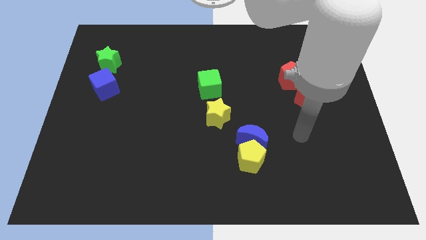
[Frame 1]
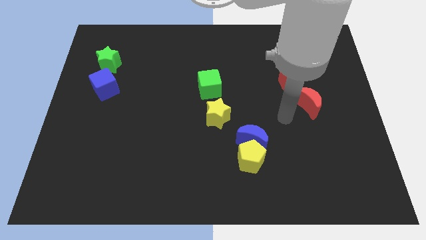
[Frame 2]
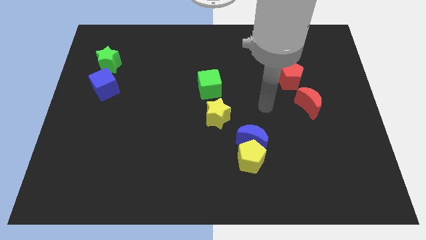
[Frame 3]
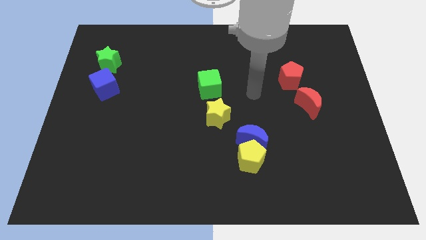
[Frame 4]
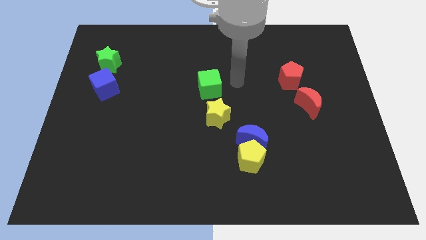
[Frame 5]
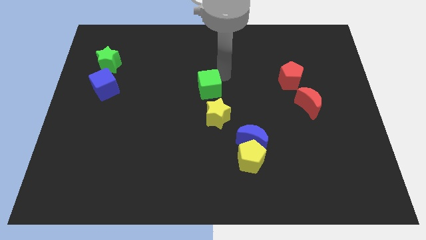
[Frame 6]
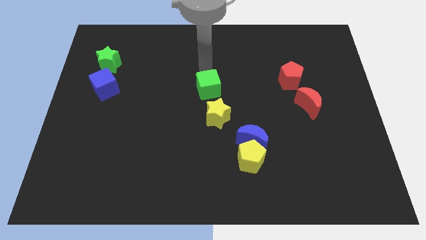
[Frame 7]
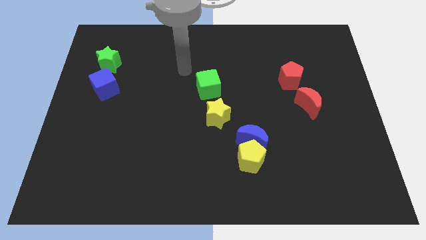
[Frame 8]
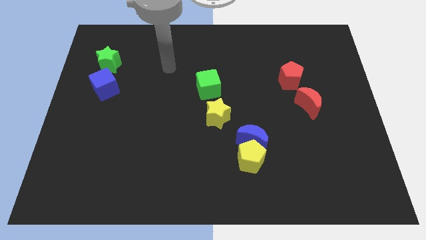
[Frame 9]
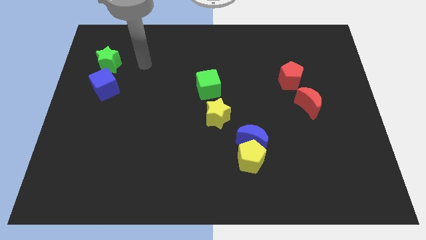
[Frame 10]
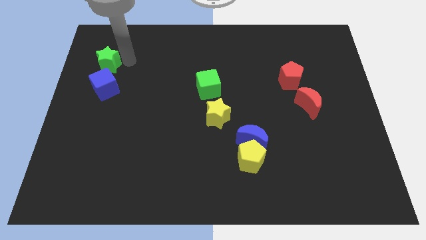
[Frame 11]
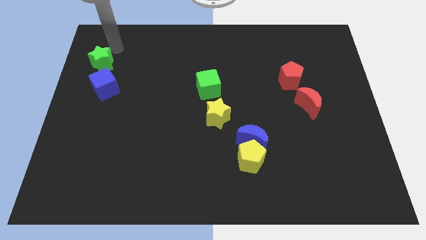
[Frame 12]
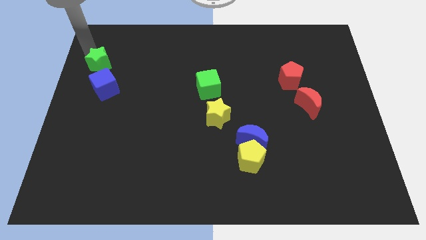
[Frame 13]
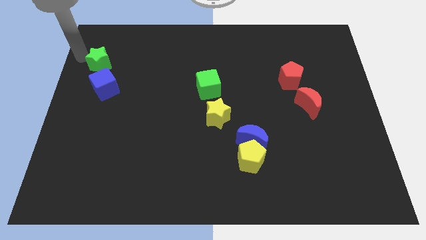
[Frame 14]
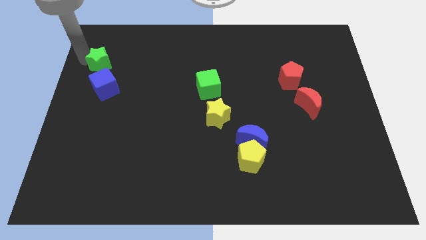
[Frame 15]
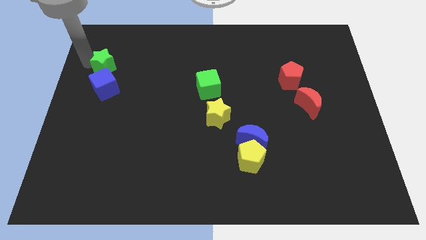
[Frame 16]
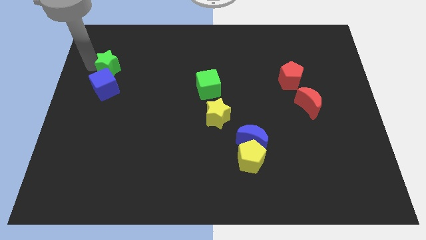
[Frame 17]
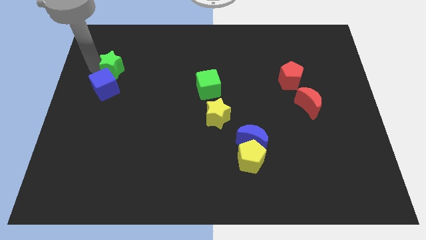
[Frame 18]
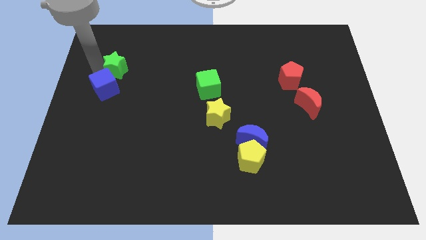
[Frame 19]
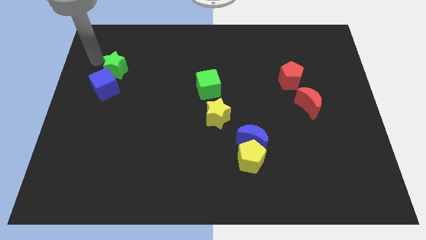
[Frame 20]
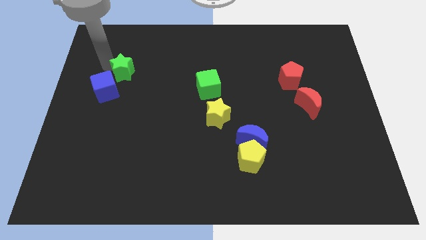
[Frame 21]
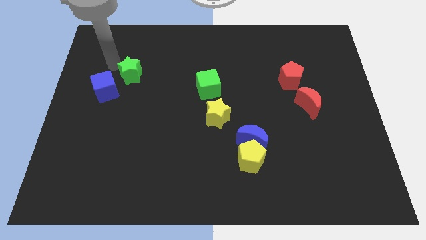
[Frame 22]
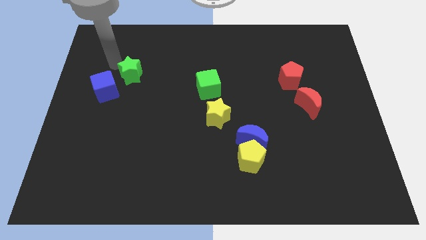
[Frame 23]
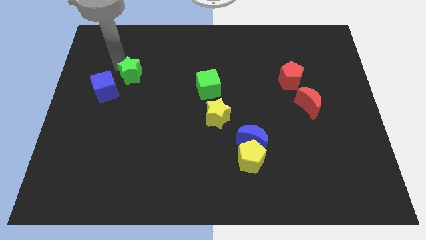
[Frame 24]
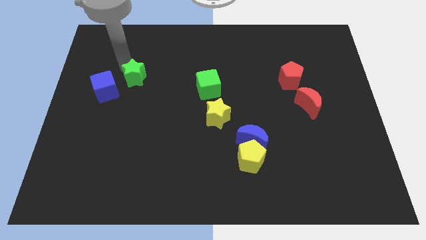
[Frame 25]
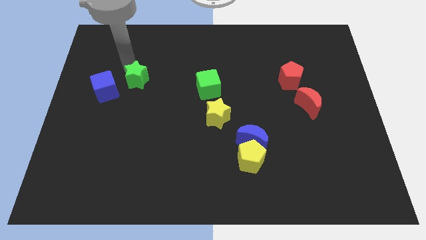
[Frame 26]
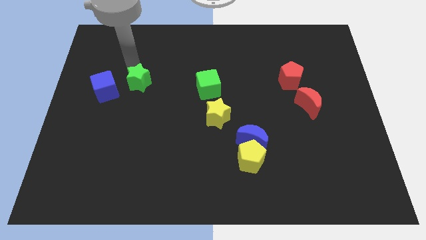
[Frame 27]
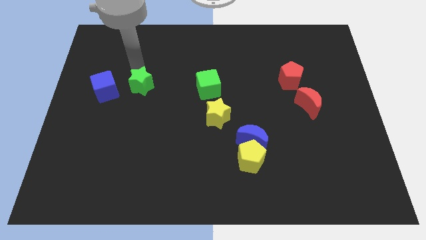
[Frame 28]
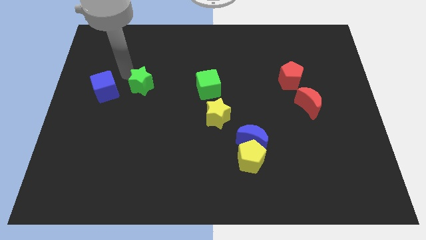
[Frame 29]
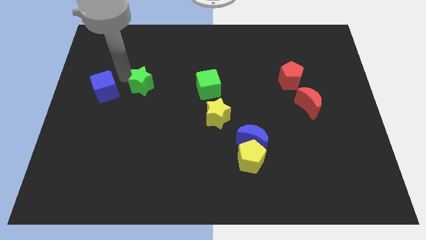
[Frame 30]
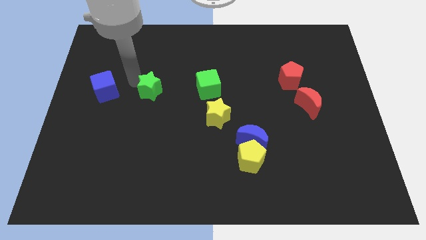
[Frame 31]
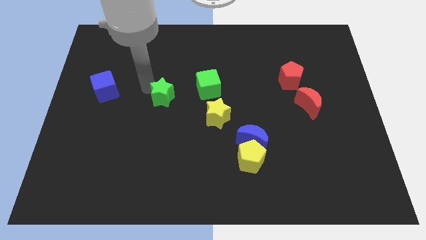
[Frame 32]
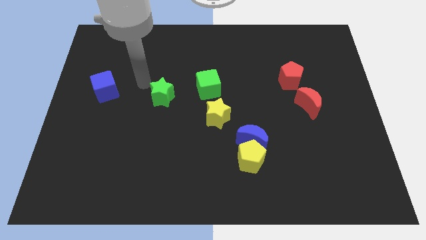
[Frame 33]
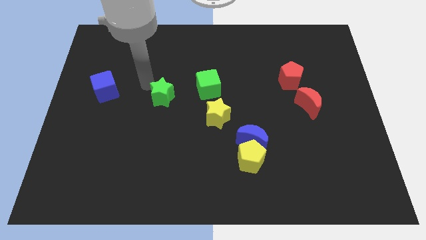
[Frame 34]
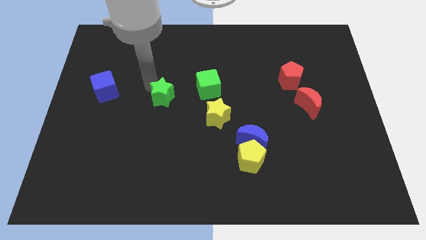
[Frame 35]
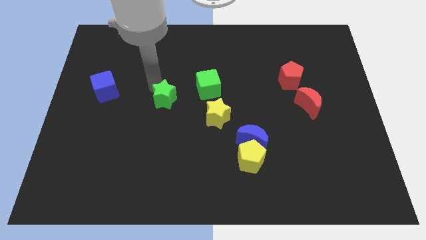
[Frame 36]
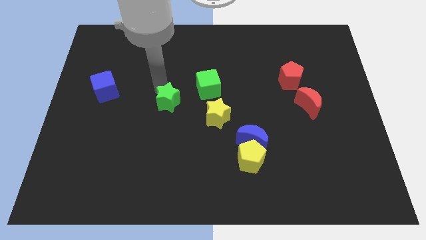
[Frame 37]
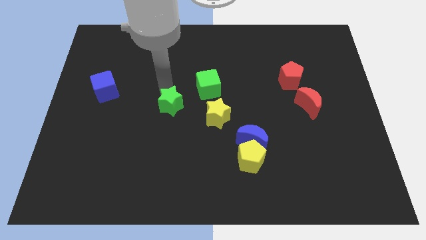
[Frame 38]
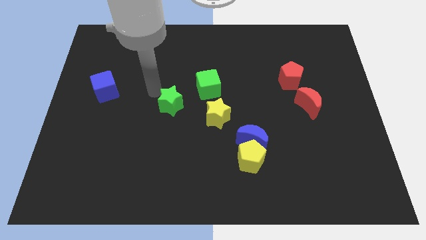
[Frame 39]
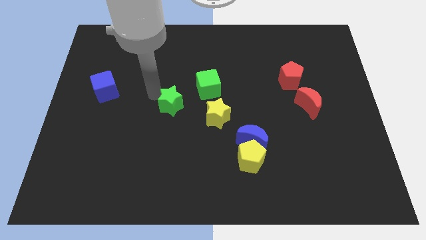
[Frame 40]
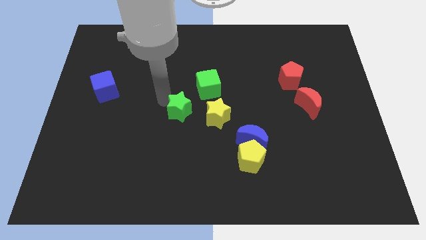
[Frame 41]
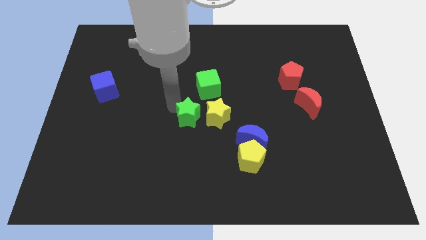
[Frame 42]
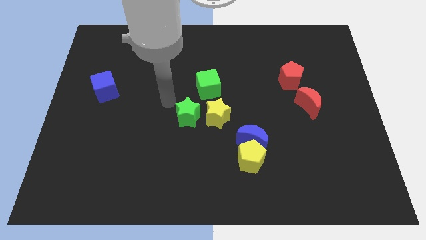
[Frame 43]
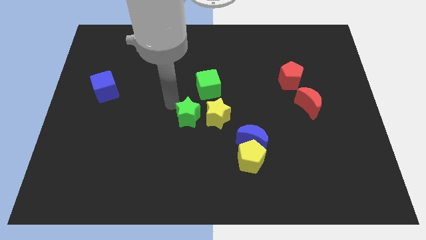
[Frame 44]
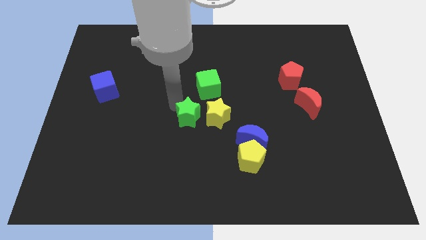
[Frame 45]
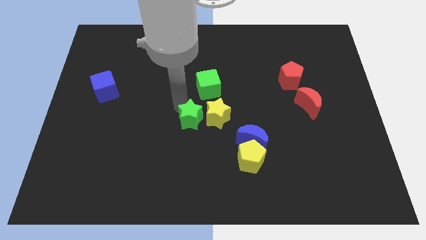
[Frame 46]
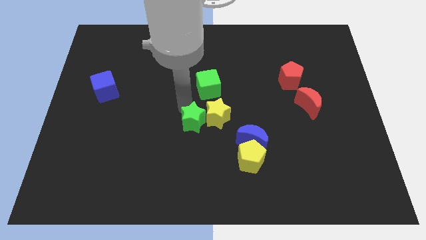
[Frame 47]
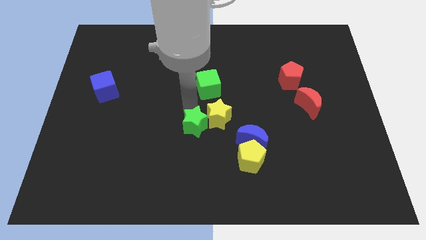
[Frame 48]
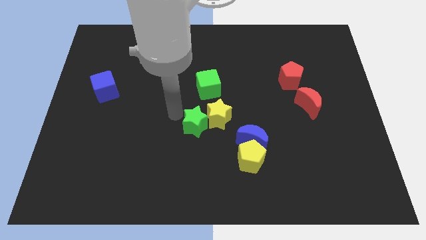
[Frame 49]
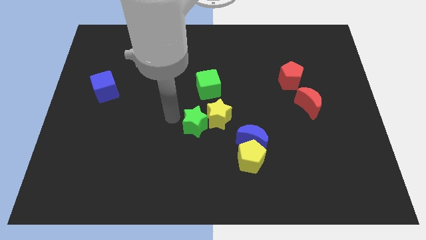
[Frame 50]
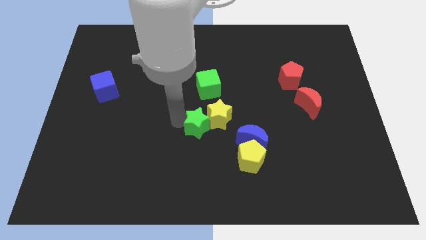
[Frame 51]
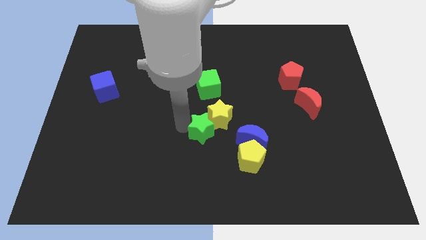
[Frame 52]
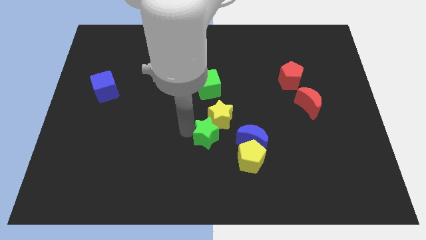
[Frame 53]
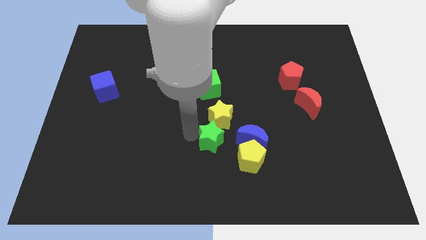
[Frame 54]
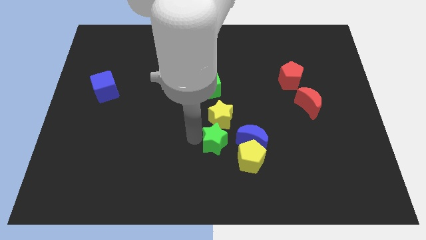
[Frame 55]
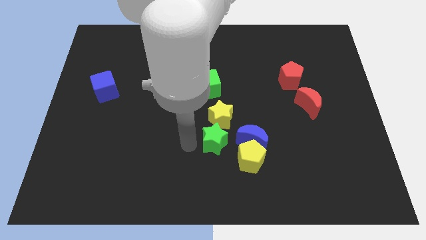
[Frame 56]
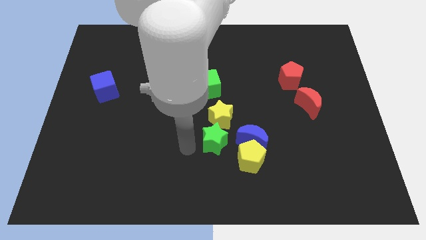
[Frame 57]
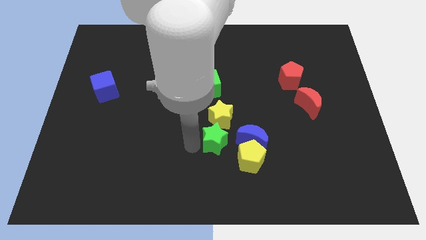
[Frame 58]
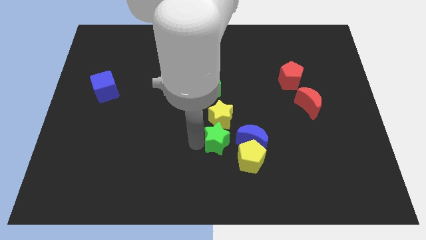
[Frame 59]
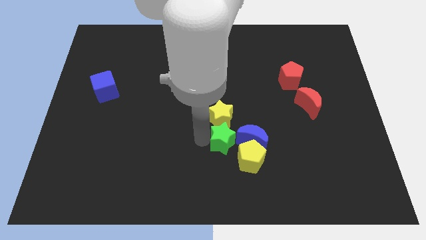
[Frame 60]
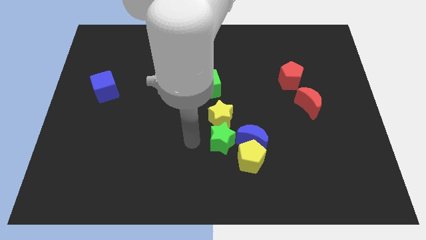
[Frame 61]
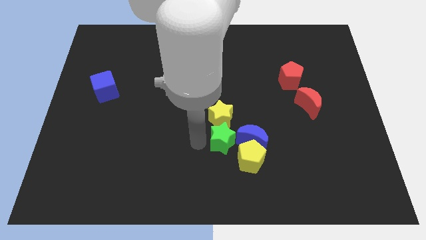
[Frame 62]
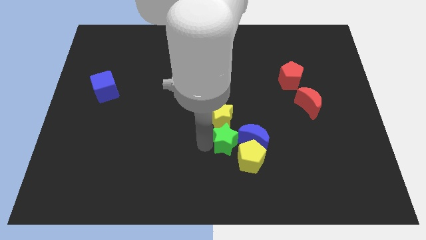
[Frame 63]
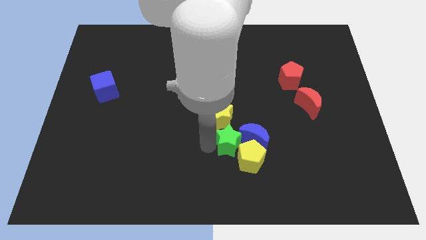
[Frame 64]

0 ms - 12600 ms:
slide the green star towards the blue moon
